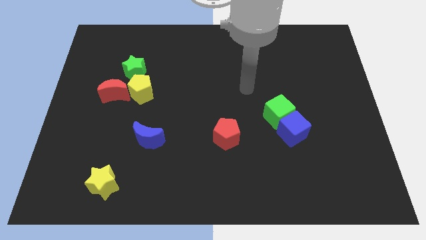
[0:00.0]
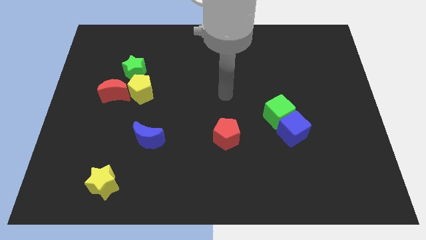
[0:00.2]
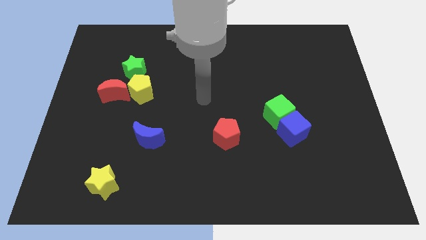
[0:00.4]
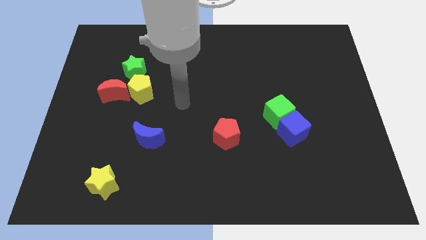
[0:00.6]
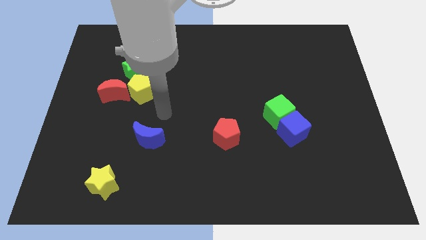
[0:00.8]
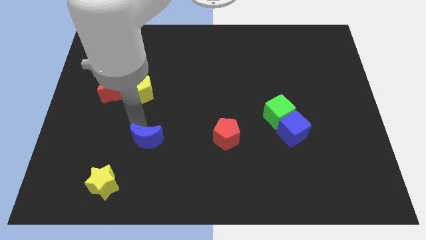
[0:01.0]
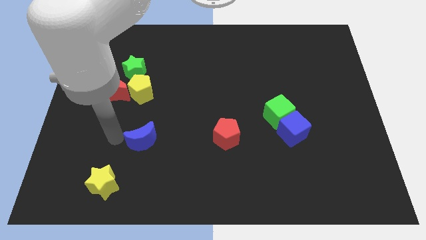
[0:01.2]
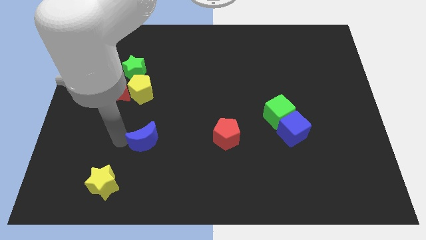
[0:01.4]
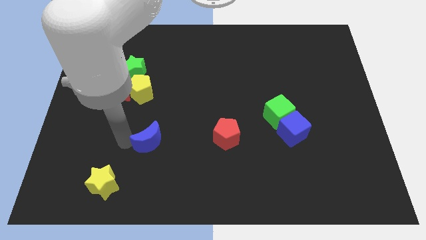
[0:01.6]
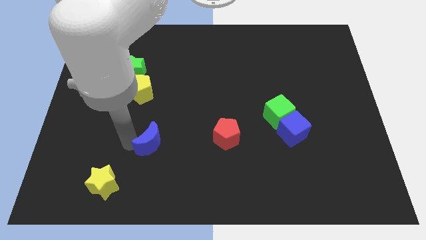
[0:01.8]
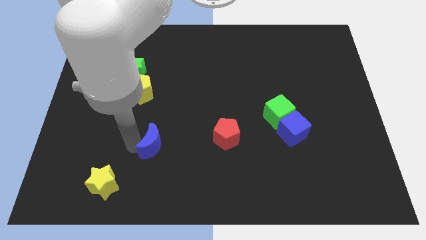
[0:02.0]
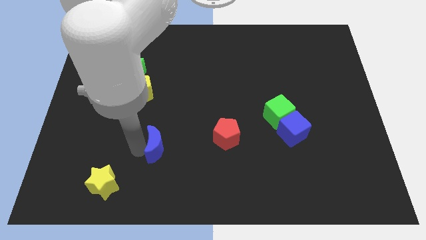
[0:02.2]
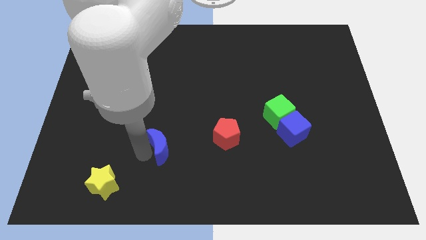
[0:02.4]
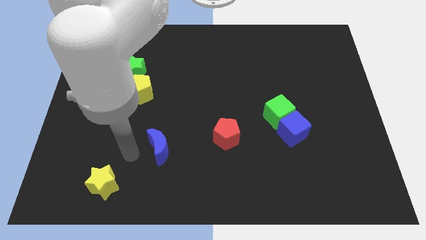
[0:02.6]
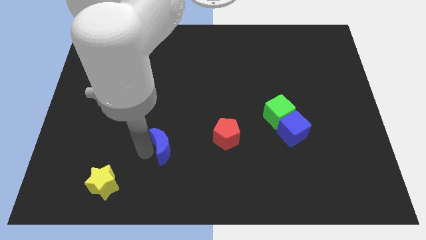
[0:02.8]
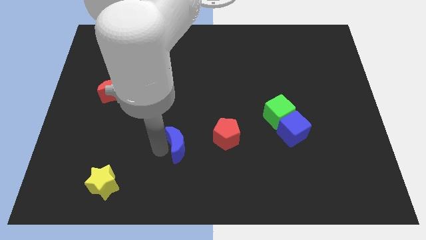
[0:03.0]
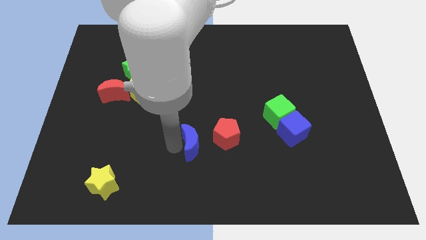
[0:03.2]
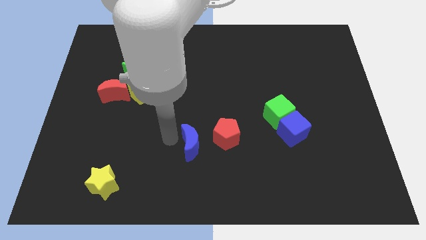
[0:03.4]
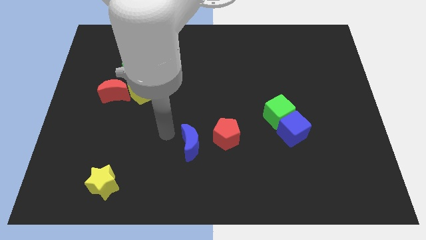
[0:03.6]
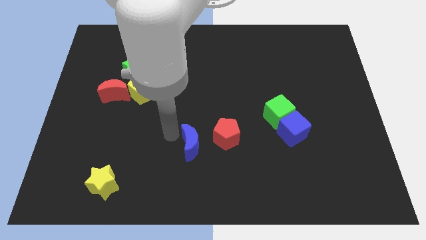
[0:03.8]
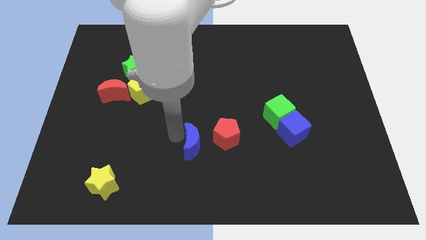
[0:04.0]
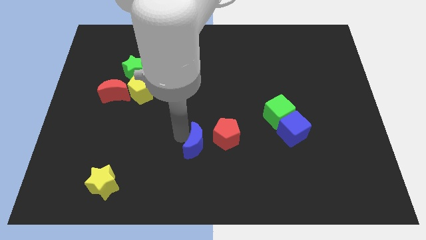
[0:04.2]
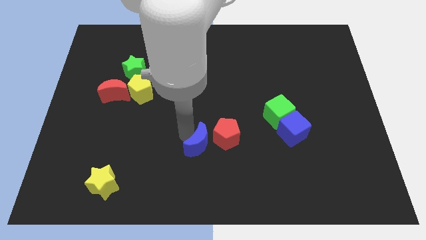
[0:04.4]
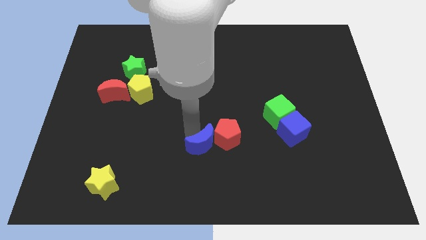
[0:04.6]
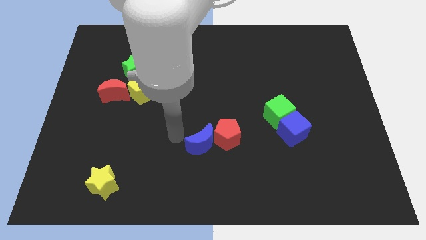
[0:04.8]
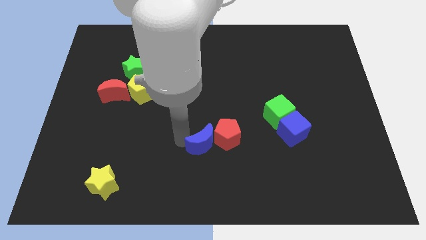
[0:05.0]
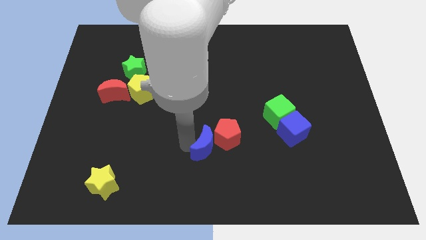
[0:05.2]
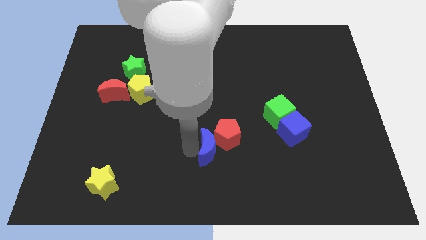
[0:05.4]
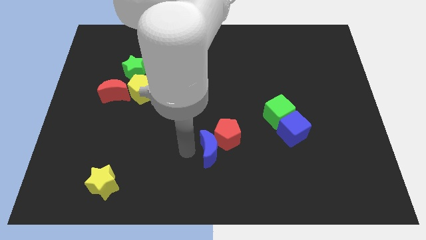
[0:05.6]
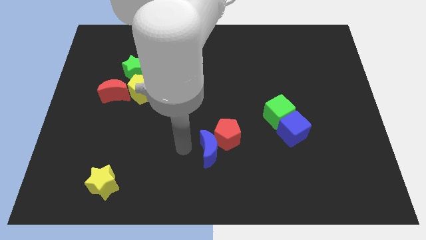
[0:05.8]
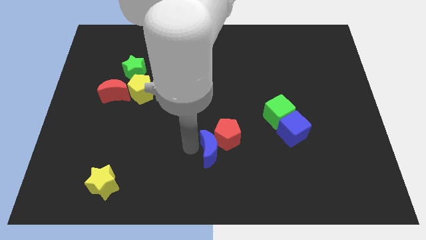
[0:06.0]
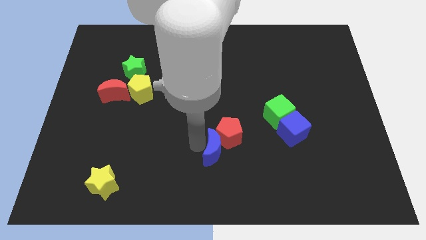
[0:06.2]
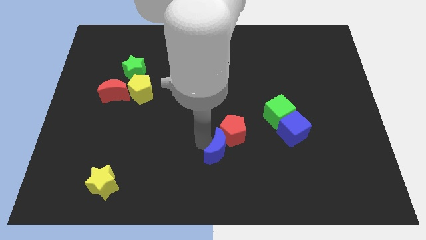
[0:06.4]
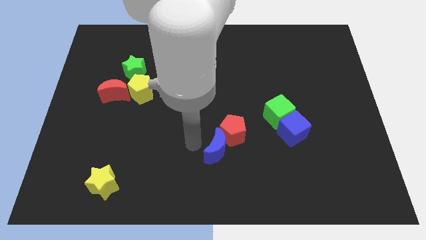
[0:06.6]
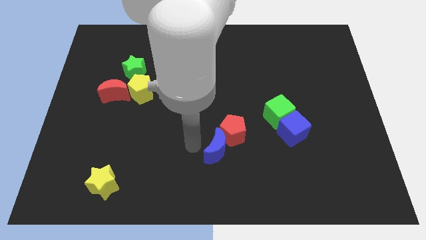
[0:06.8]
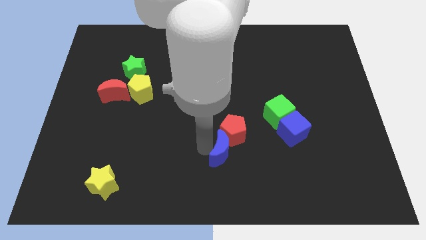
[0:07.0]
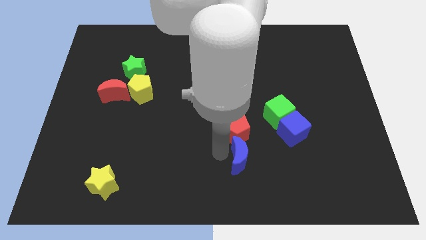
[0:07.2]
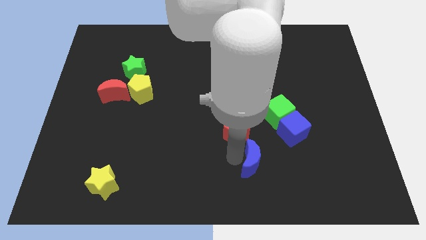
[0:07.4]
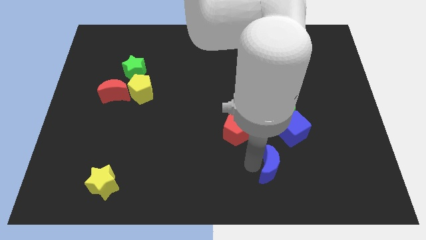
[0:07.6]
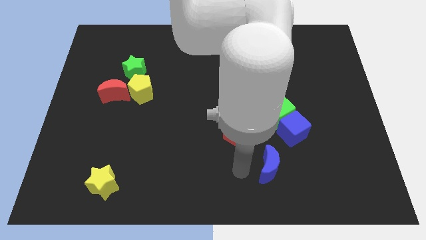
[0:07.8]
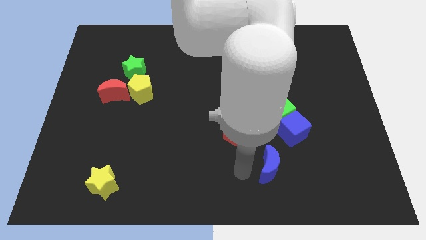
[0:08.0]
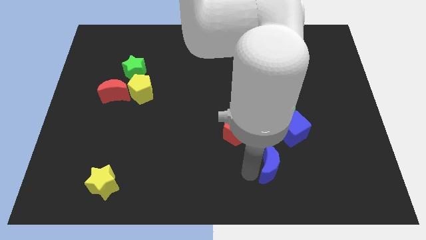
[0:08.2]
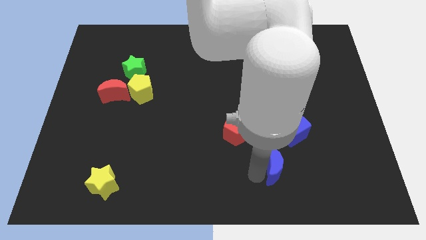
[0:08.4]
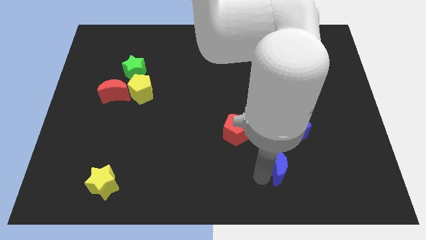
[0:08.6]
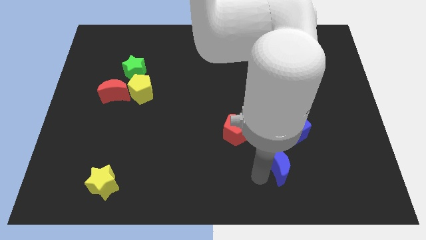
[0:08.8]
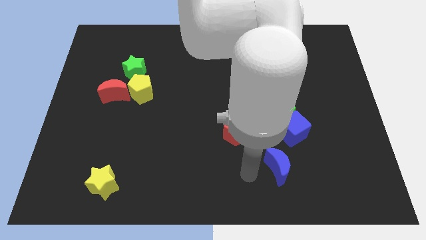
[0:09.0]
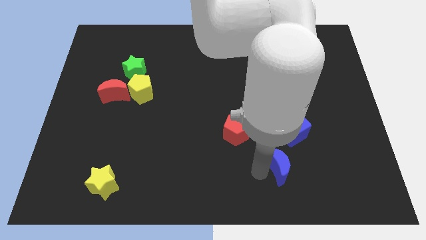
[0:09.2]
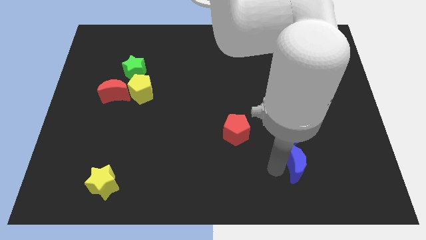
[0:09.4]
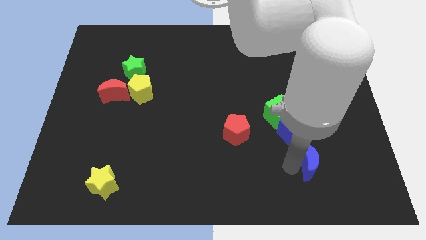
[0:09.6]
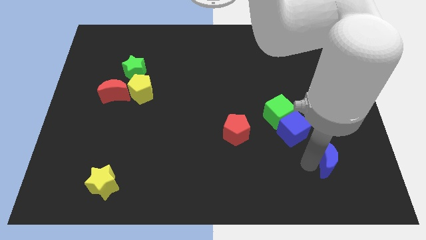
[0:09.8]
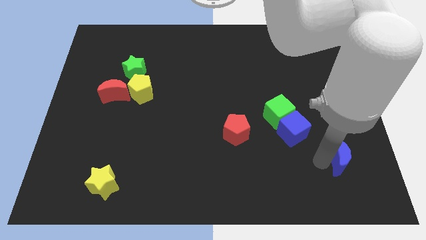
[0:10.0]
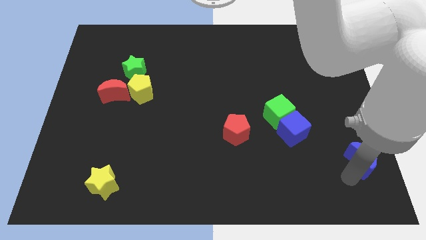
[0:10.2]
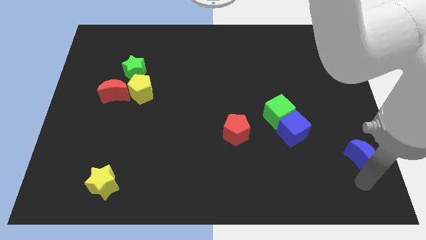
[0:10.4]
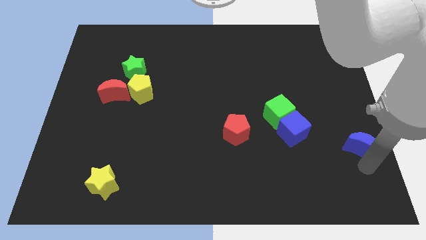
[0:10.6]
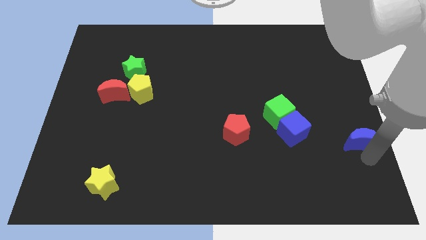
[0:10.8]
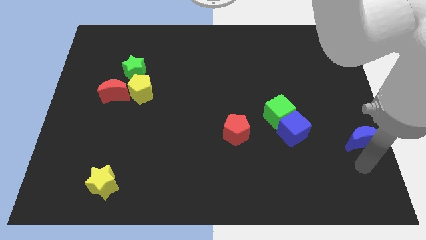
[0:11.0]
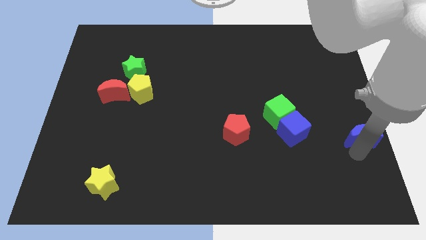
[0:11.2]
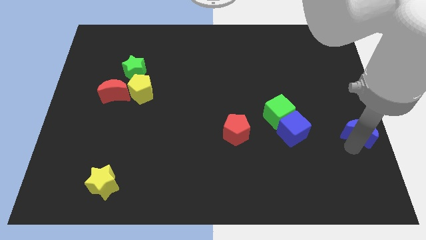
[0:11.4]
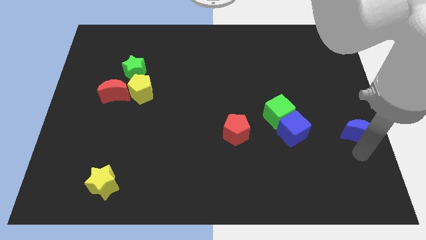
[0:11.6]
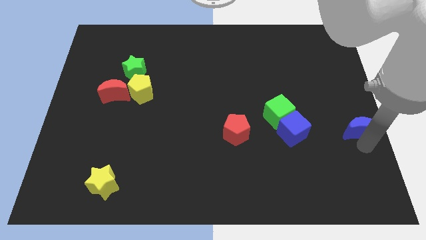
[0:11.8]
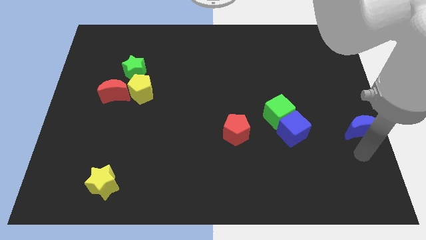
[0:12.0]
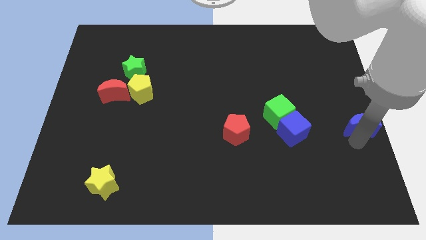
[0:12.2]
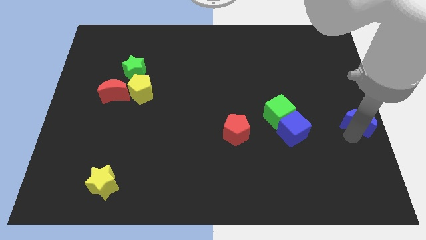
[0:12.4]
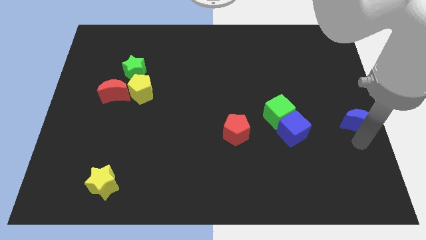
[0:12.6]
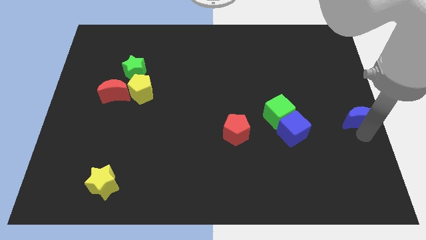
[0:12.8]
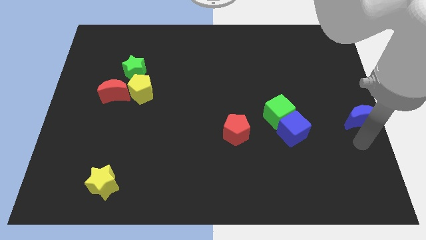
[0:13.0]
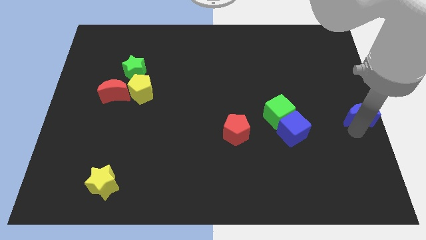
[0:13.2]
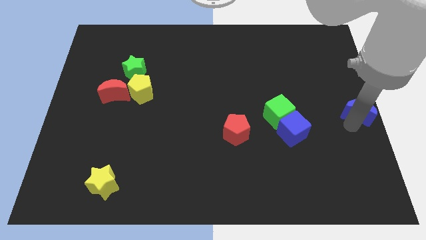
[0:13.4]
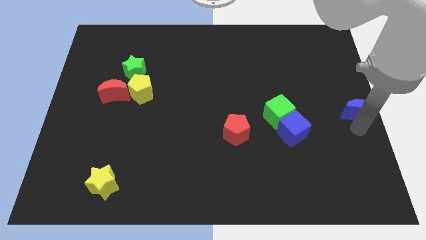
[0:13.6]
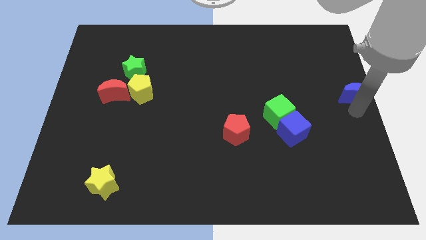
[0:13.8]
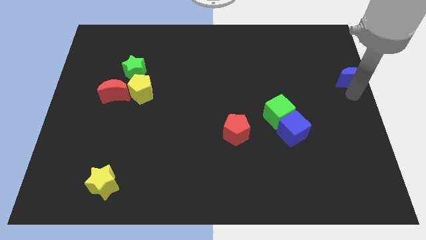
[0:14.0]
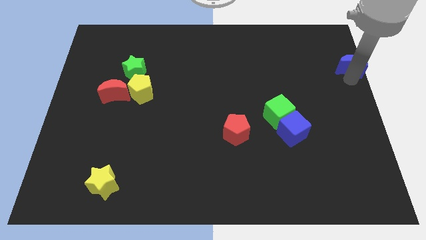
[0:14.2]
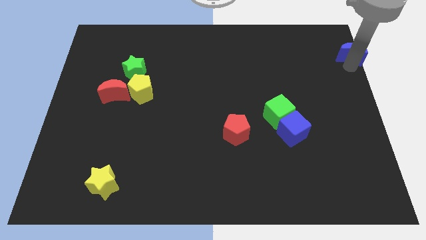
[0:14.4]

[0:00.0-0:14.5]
move the blue moon to the upper right corner
